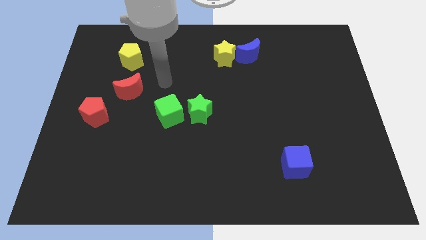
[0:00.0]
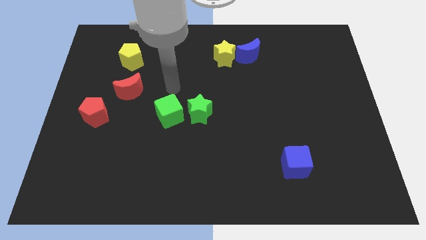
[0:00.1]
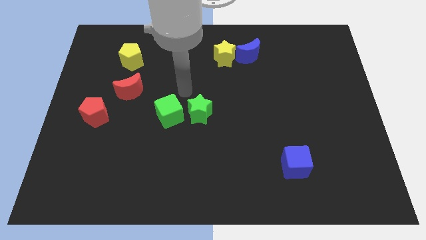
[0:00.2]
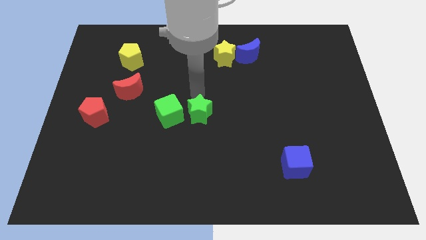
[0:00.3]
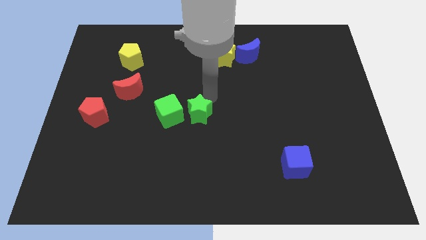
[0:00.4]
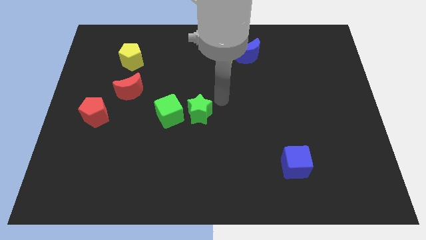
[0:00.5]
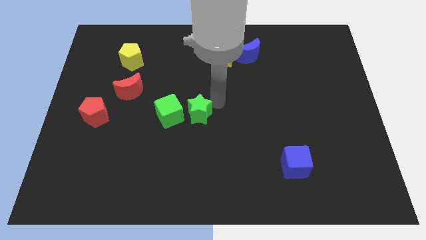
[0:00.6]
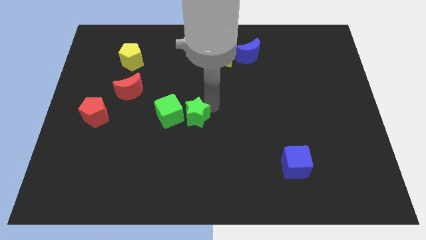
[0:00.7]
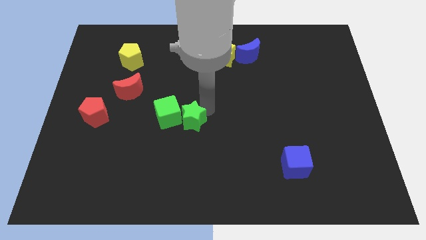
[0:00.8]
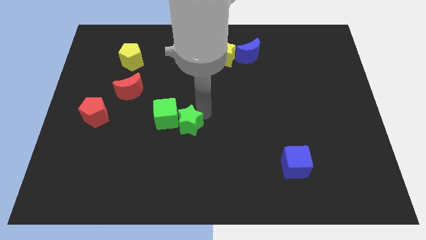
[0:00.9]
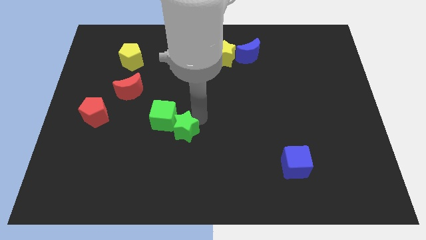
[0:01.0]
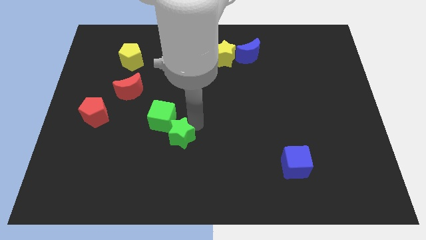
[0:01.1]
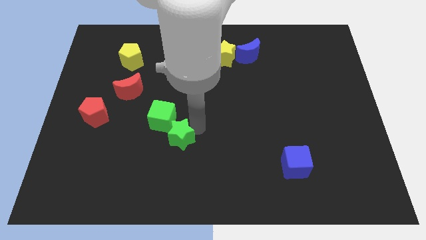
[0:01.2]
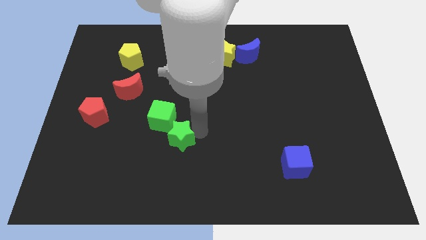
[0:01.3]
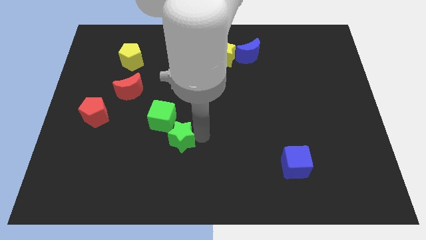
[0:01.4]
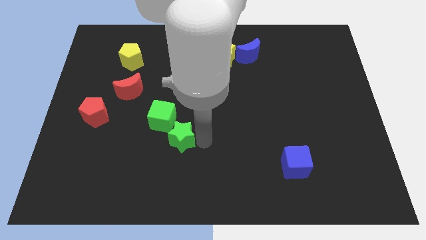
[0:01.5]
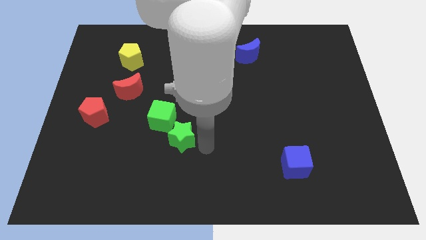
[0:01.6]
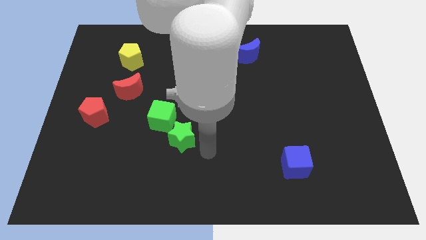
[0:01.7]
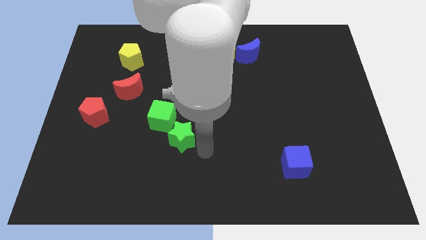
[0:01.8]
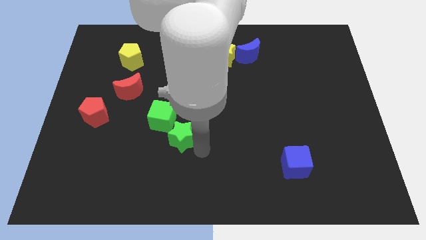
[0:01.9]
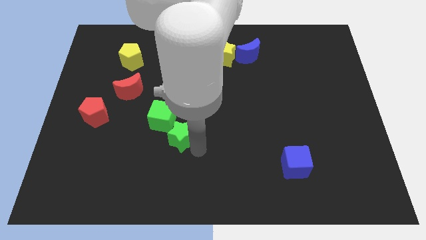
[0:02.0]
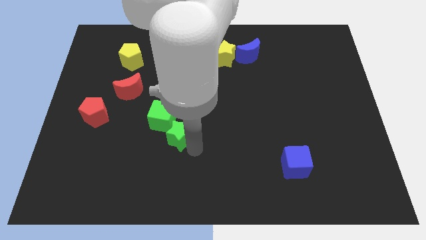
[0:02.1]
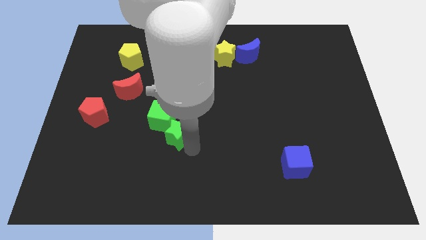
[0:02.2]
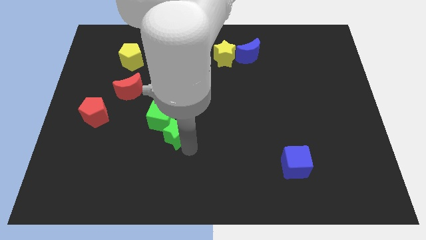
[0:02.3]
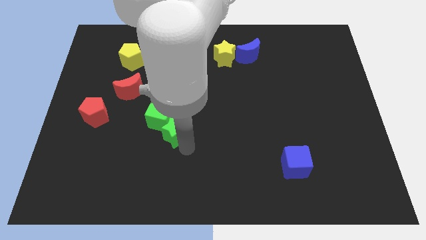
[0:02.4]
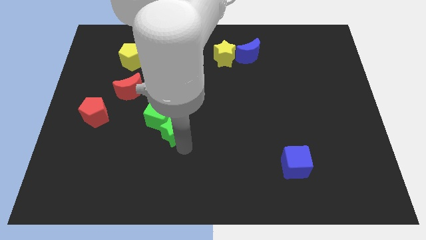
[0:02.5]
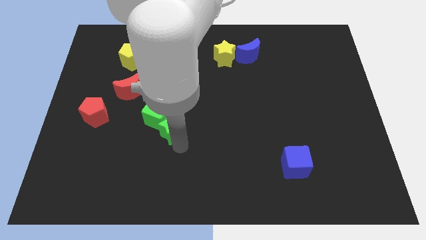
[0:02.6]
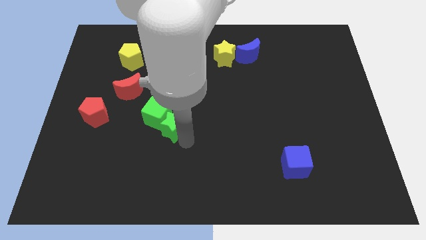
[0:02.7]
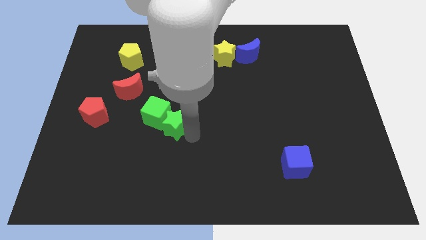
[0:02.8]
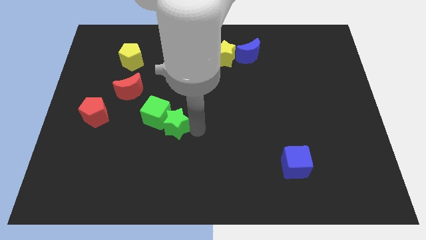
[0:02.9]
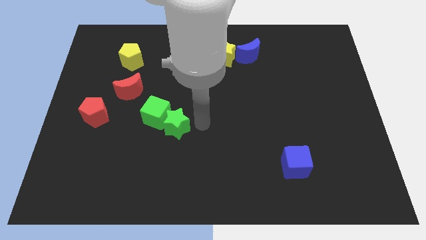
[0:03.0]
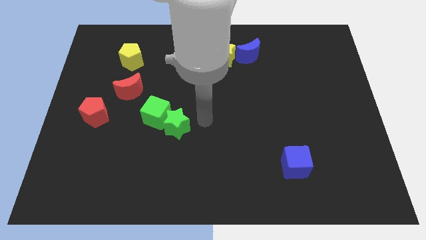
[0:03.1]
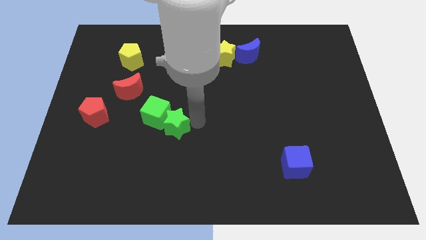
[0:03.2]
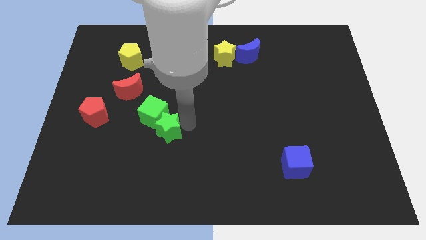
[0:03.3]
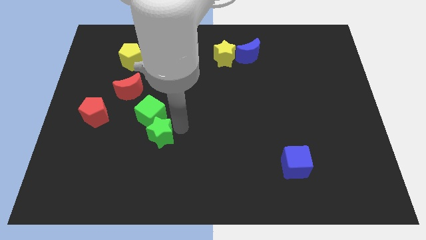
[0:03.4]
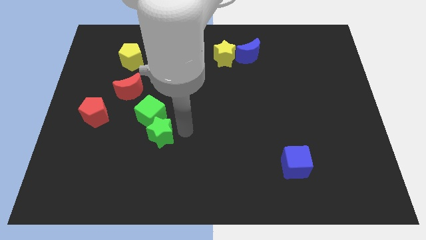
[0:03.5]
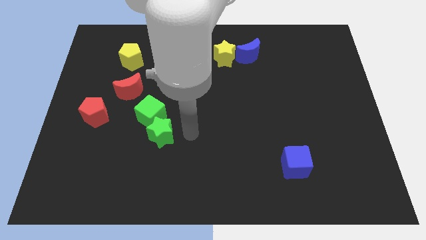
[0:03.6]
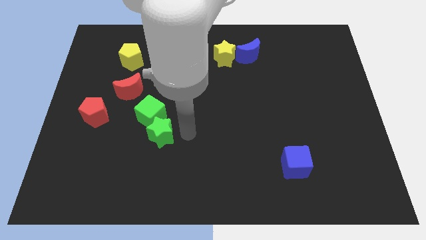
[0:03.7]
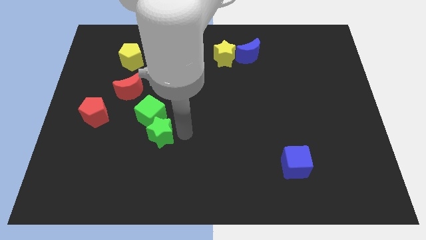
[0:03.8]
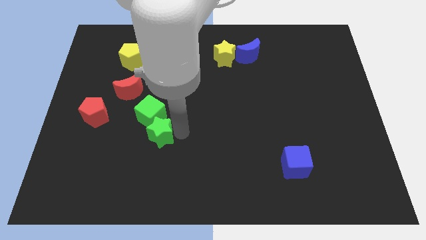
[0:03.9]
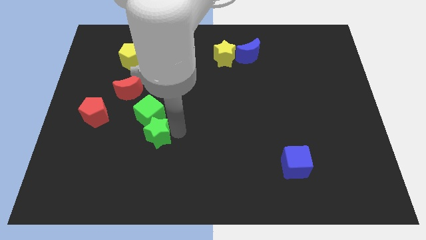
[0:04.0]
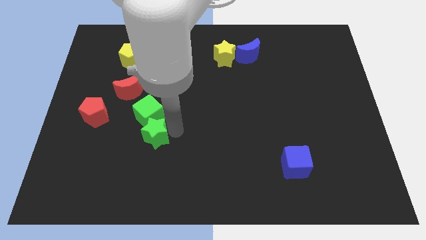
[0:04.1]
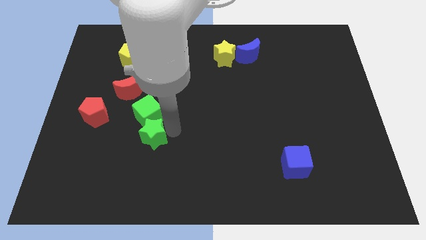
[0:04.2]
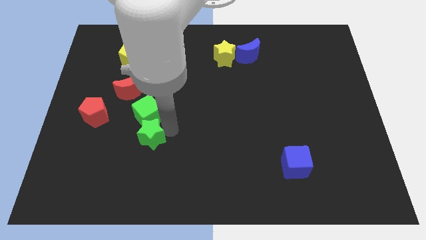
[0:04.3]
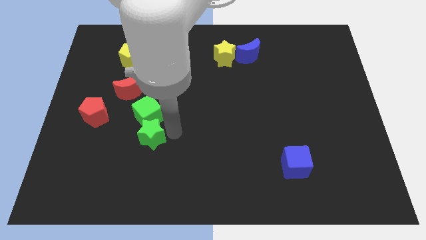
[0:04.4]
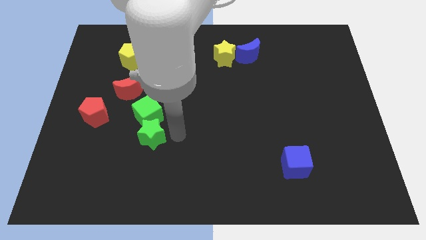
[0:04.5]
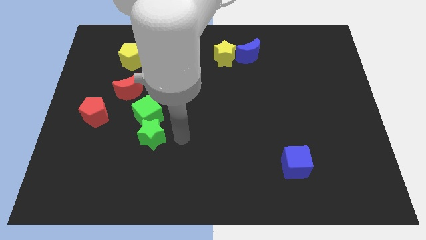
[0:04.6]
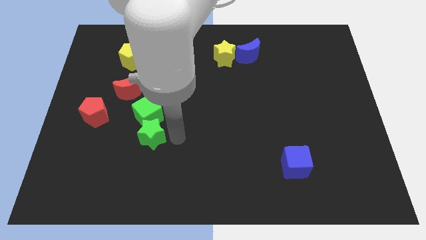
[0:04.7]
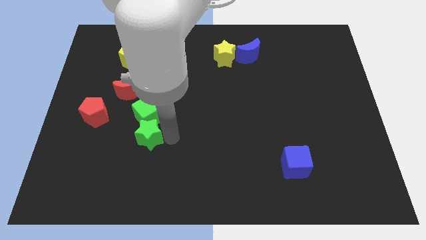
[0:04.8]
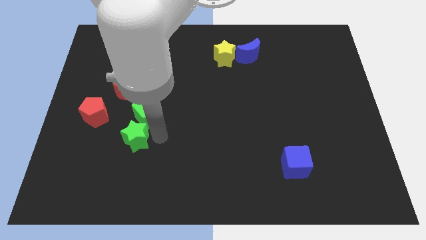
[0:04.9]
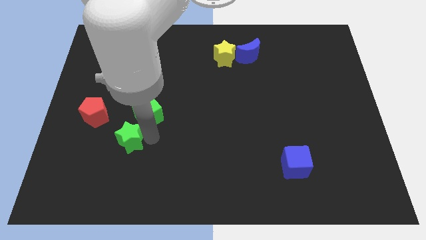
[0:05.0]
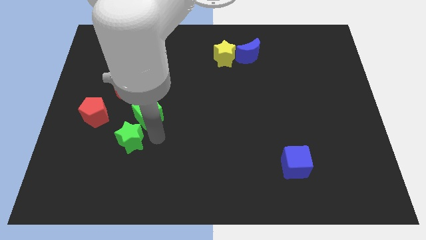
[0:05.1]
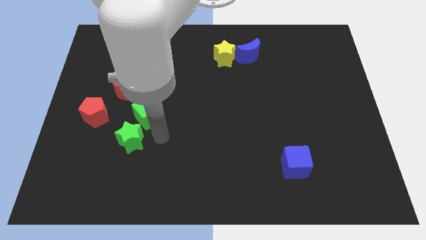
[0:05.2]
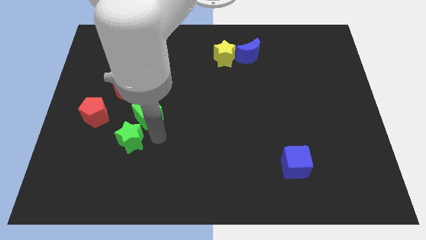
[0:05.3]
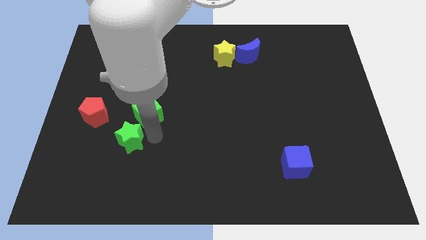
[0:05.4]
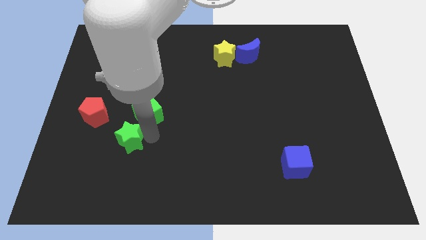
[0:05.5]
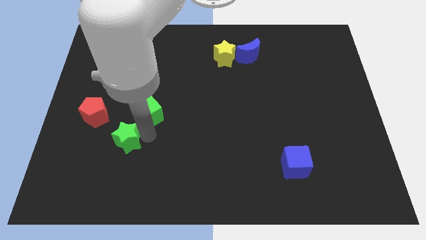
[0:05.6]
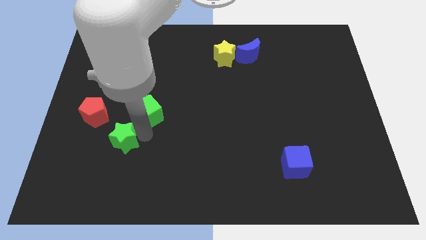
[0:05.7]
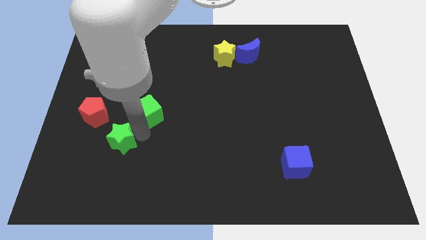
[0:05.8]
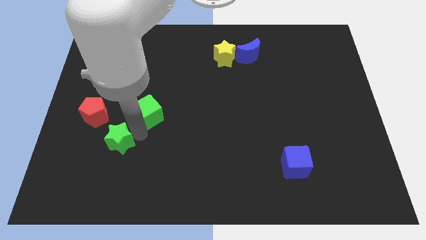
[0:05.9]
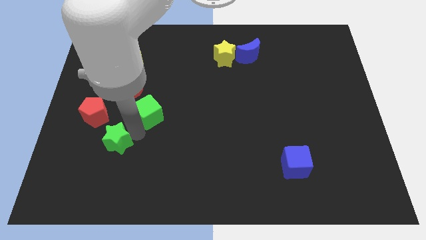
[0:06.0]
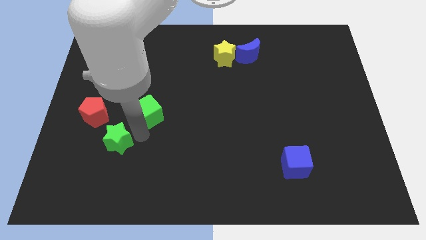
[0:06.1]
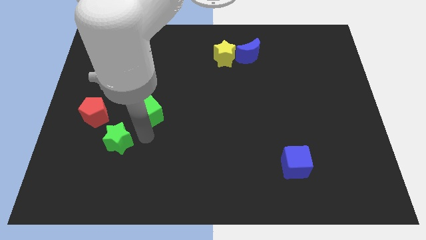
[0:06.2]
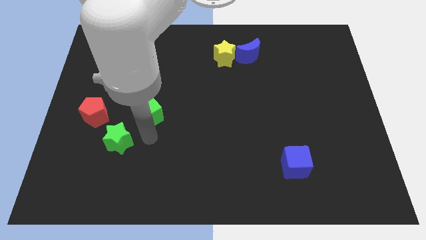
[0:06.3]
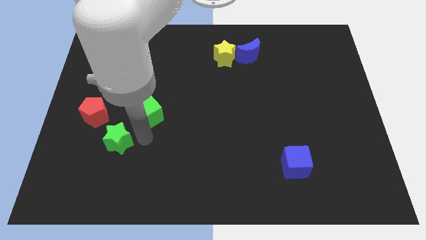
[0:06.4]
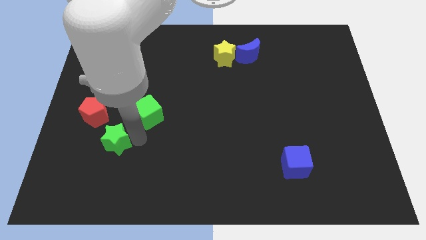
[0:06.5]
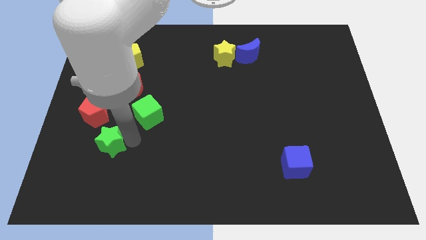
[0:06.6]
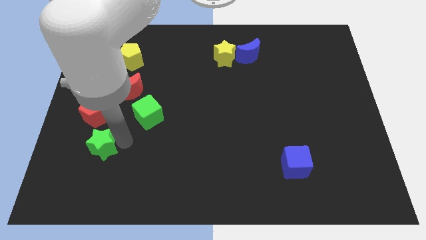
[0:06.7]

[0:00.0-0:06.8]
put the green star below the red pentagon
